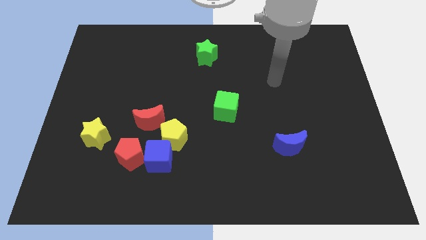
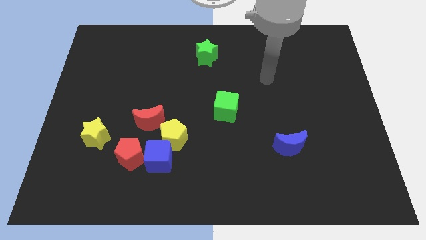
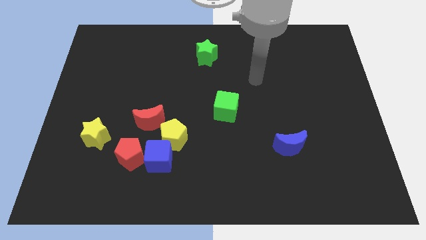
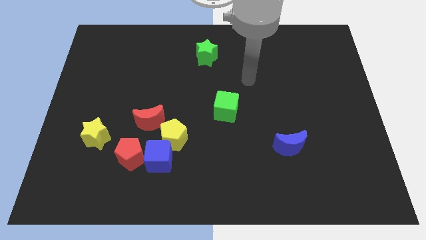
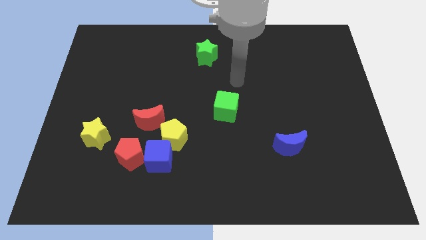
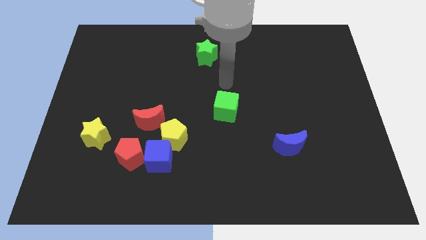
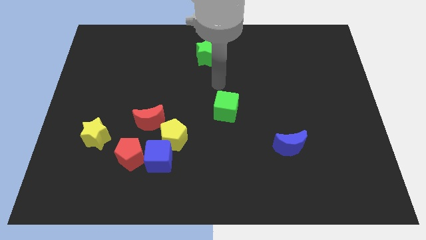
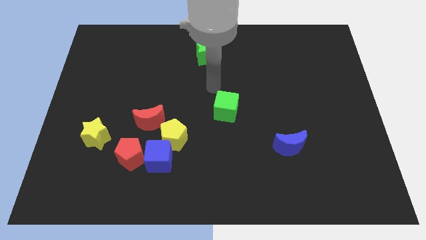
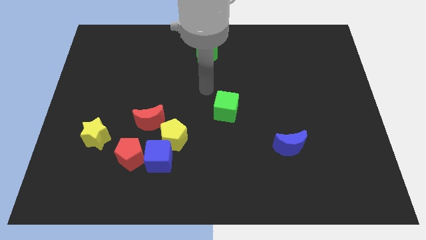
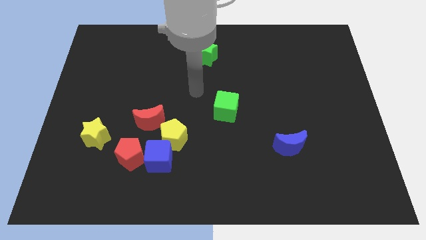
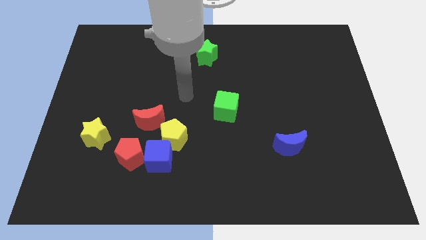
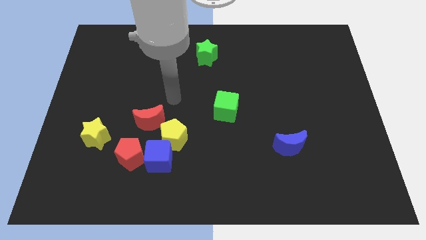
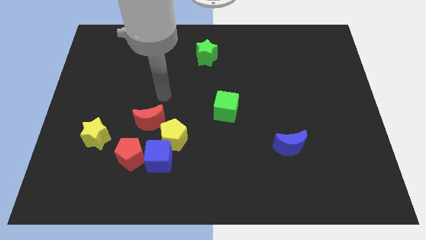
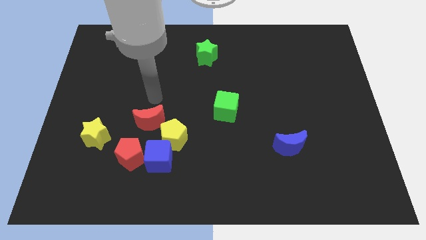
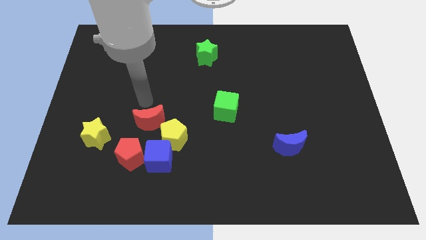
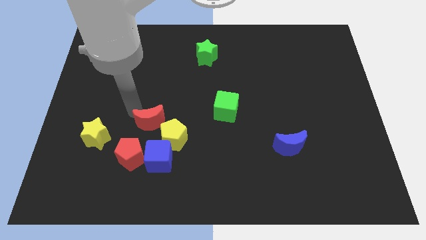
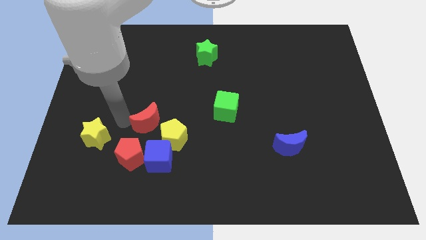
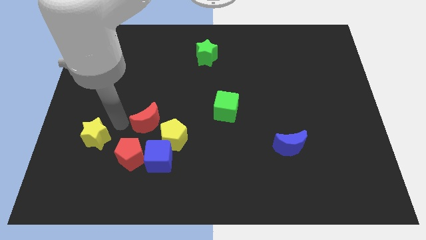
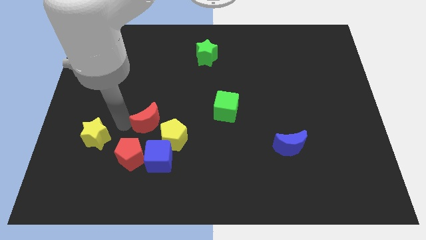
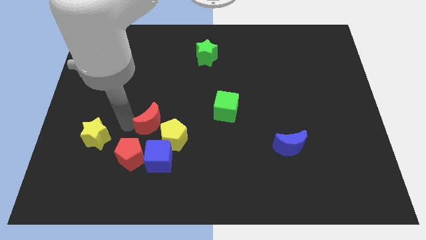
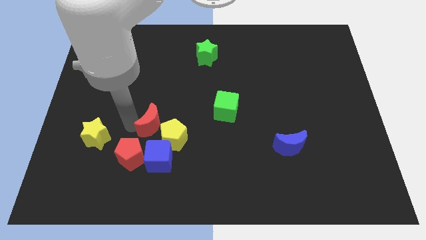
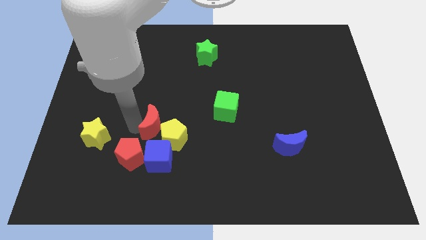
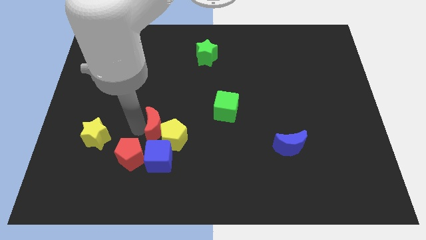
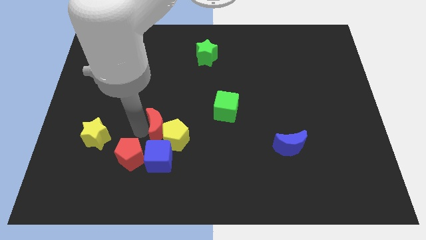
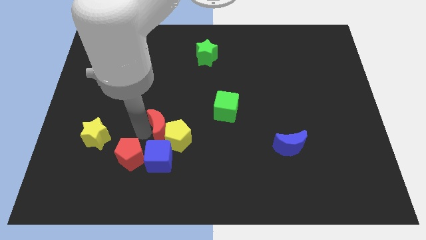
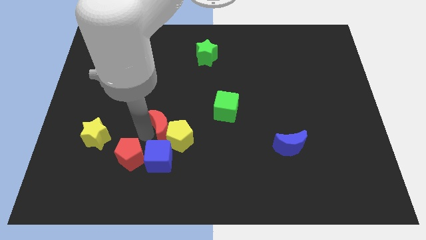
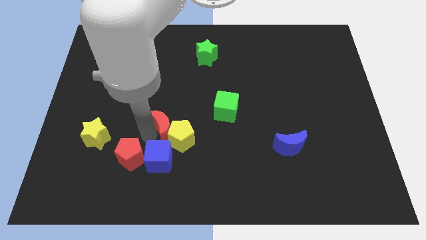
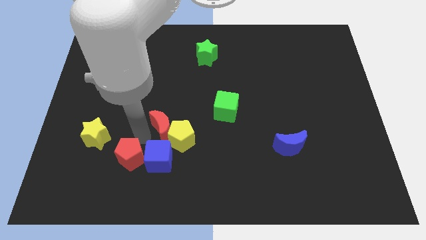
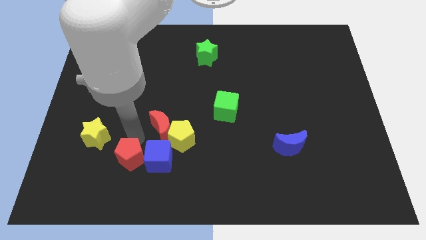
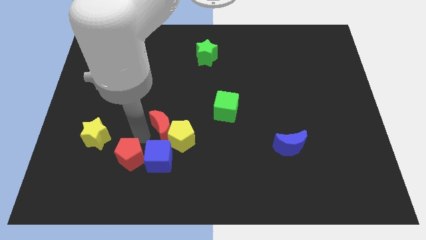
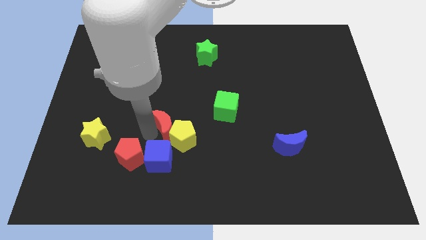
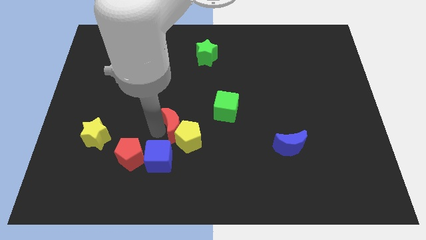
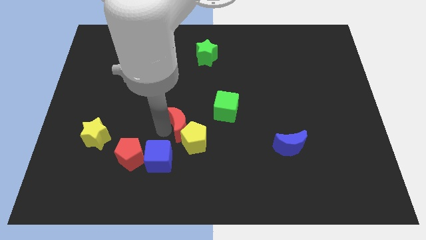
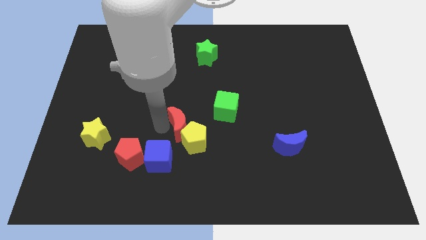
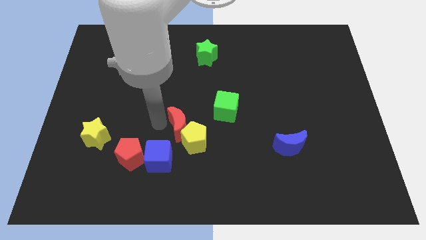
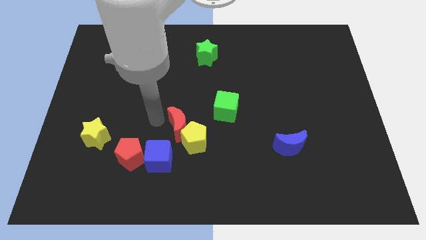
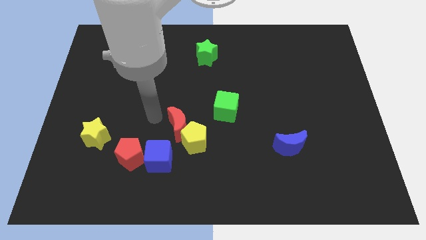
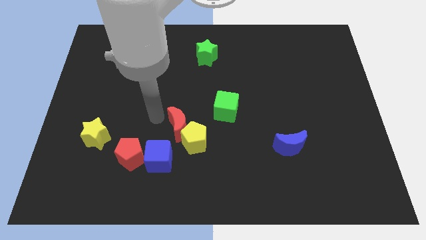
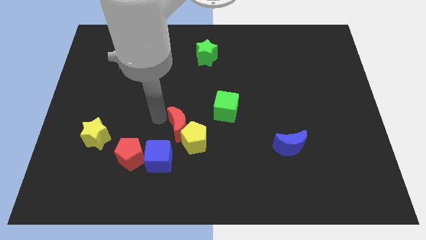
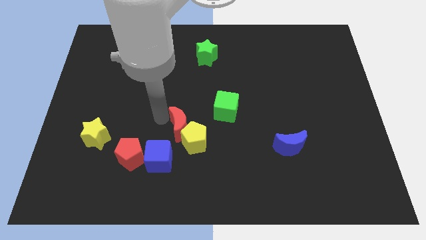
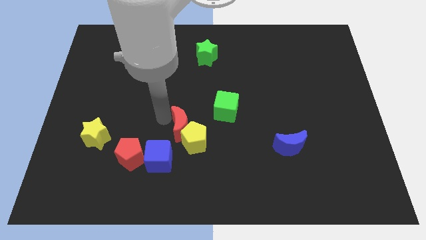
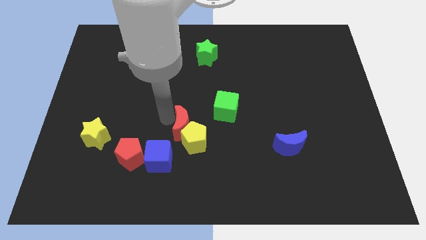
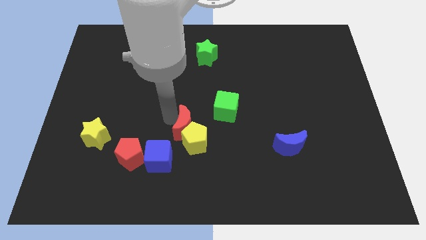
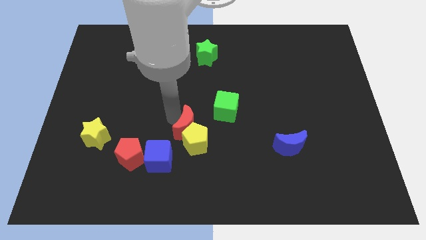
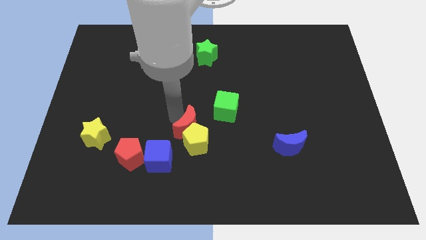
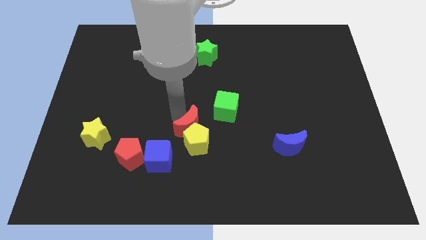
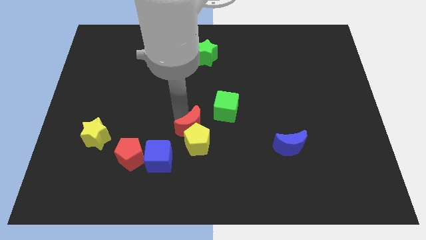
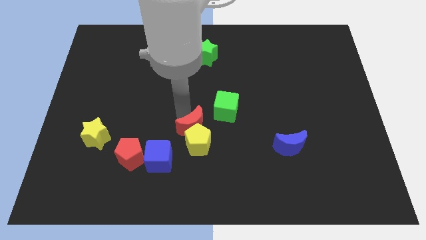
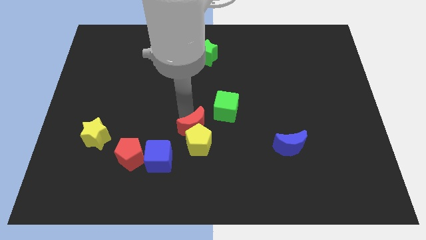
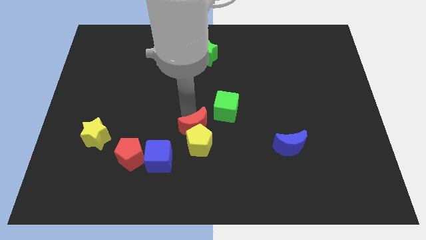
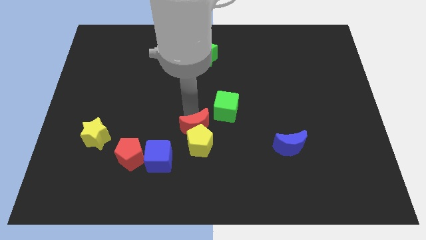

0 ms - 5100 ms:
push the red moon down and right diagonally a bit

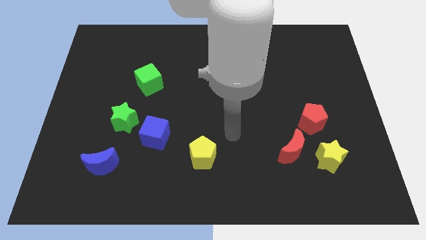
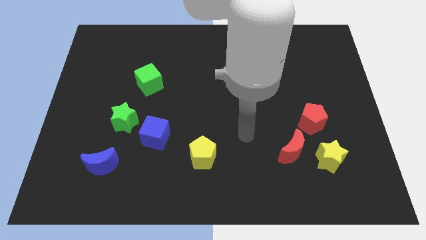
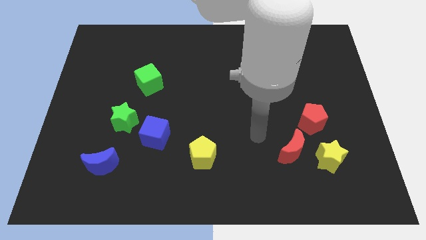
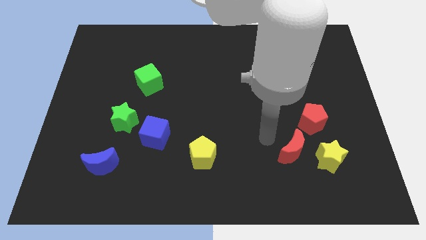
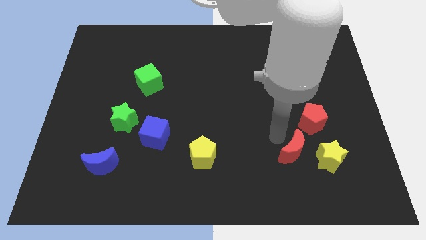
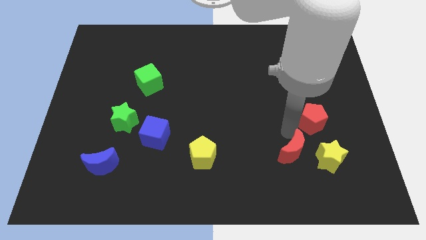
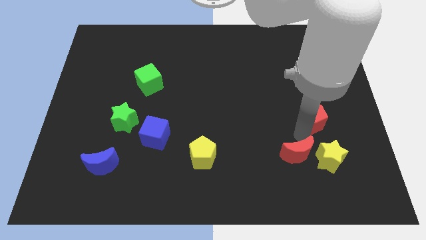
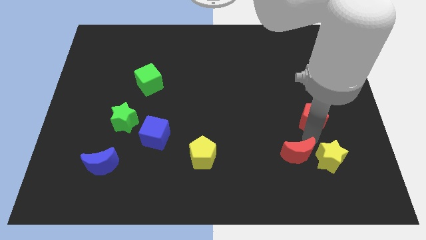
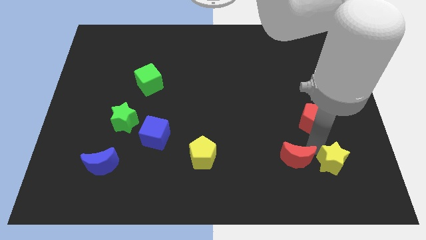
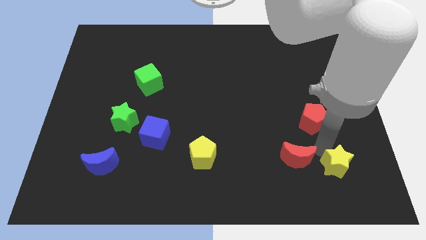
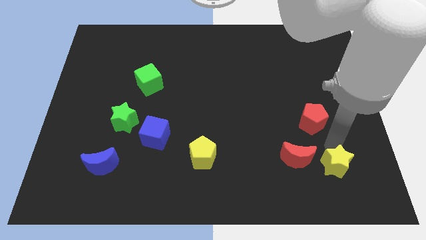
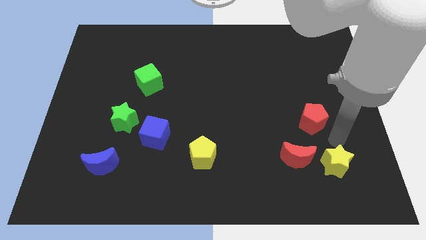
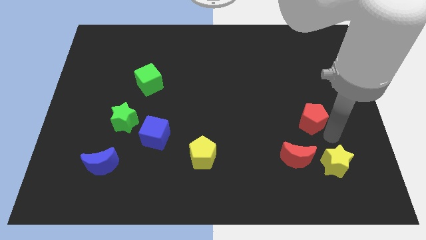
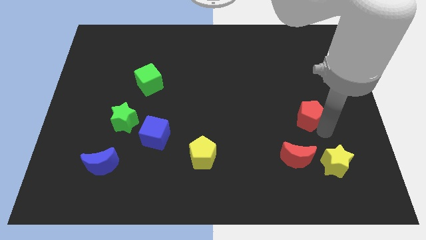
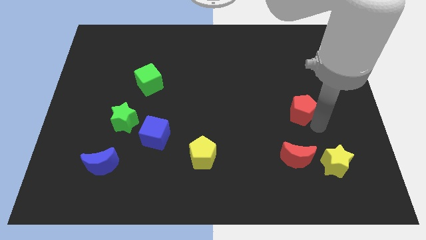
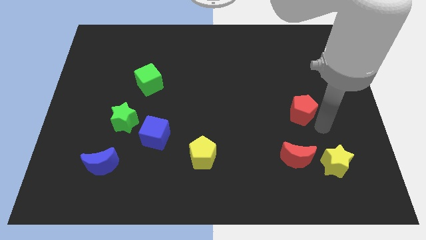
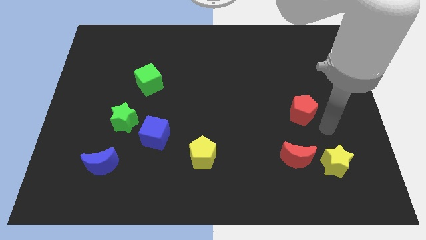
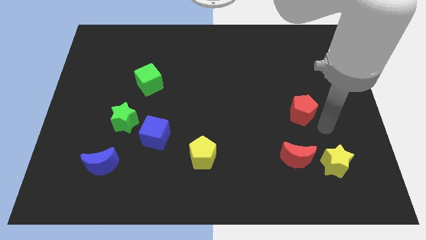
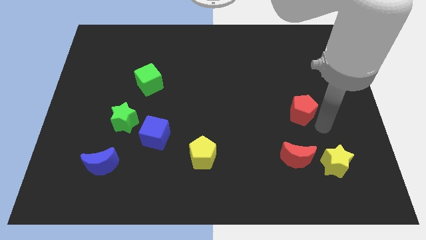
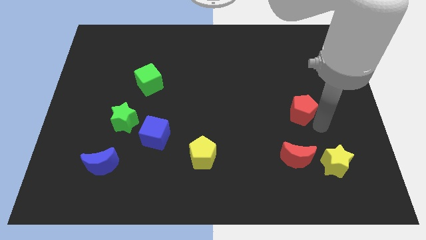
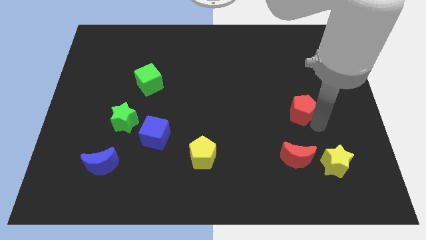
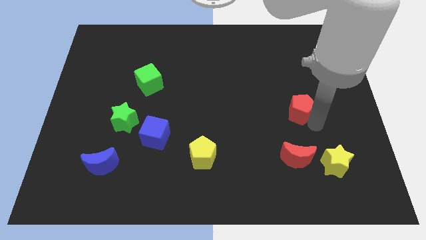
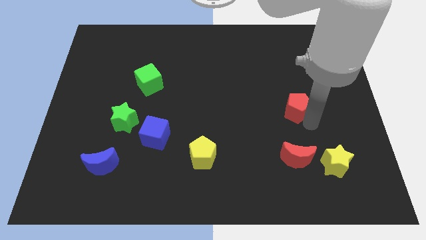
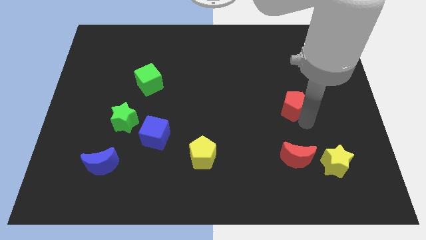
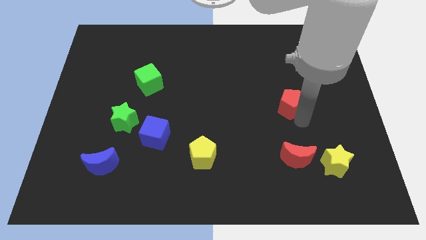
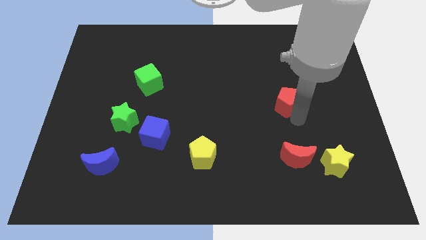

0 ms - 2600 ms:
move the red pentagon diagonally upwards and left a little

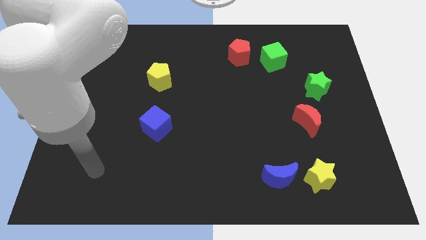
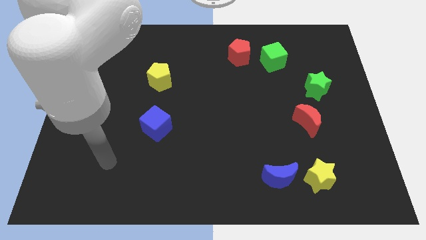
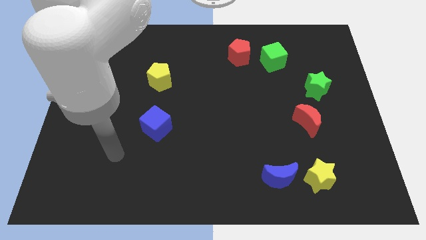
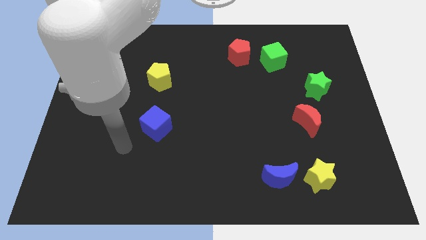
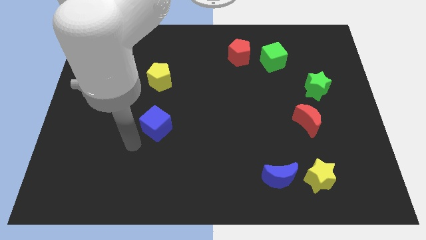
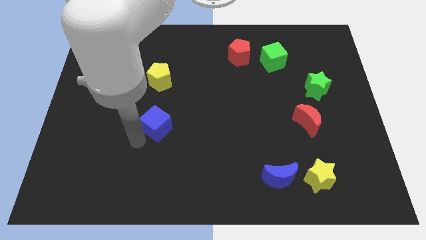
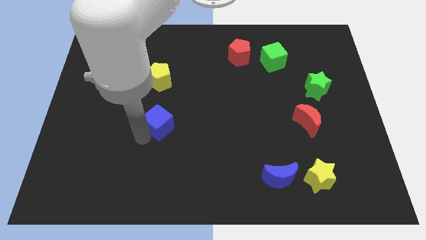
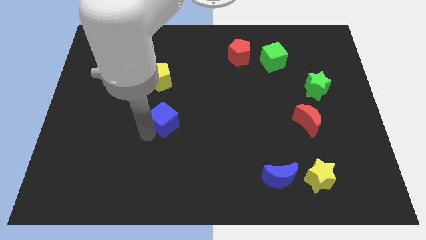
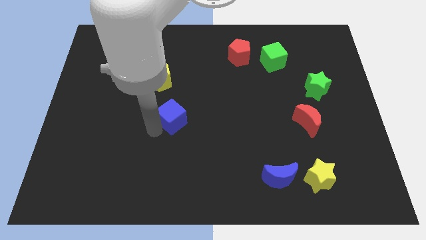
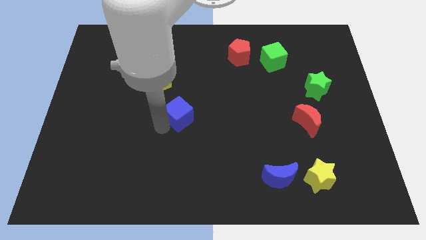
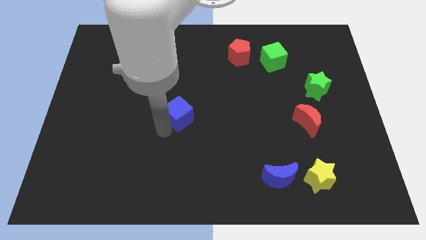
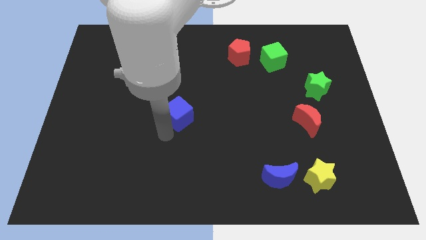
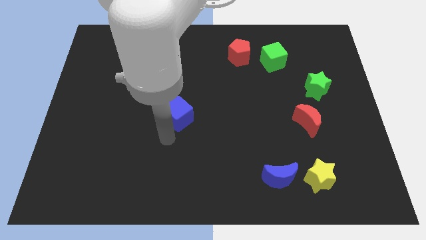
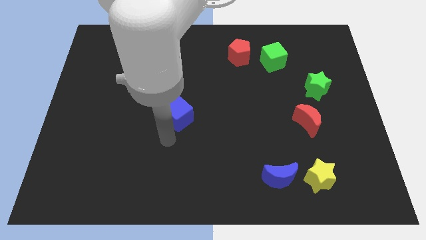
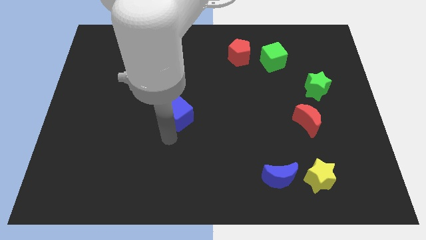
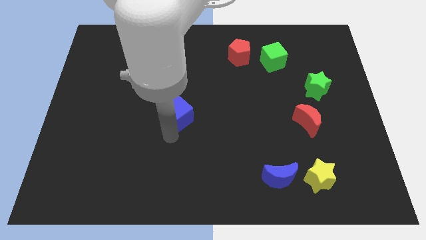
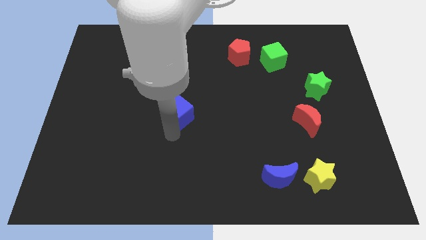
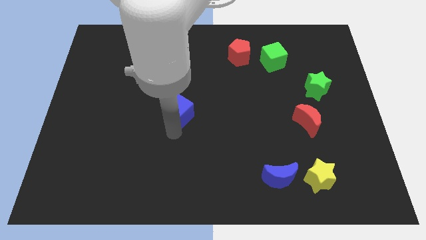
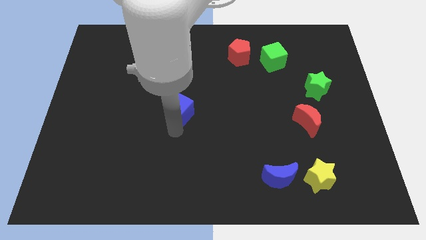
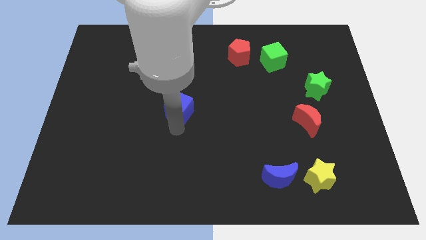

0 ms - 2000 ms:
slightly move the blue cube up and then right
